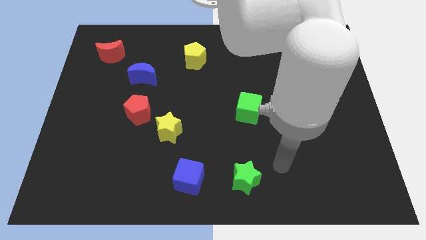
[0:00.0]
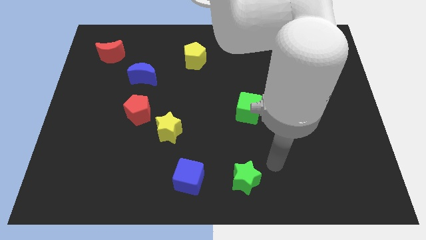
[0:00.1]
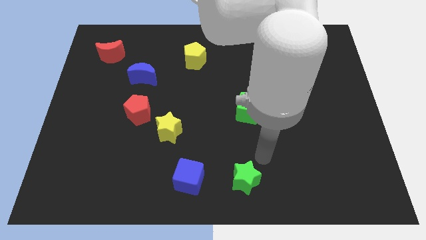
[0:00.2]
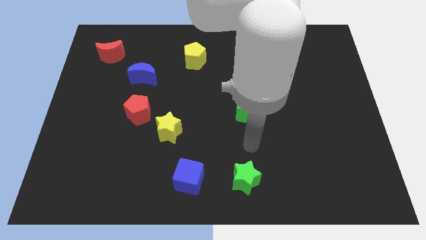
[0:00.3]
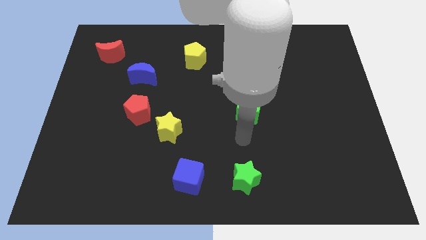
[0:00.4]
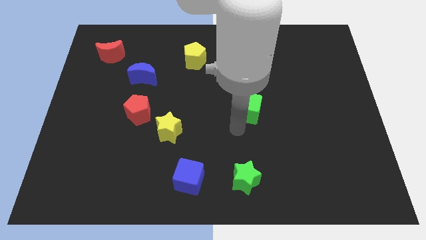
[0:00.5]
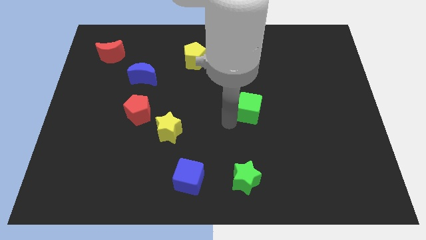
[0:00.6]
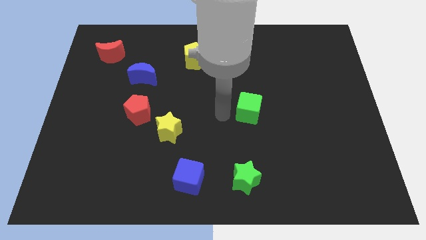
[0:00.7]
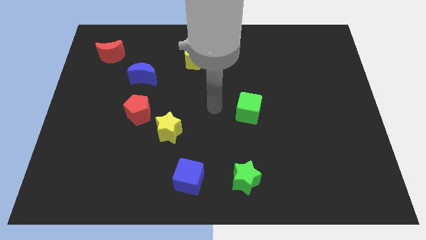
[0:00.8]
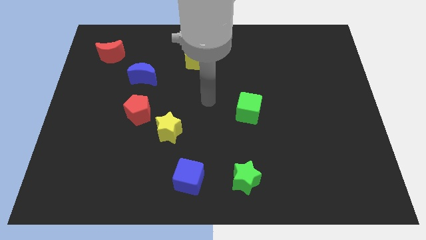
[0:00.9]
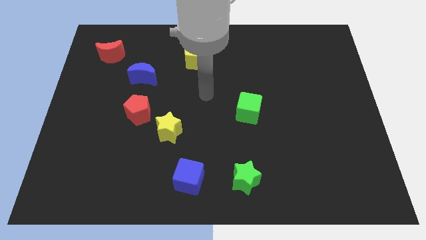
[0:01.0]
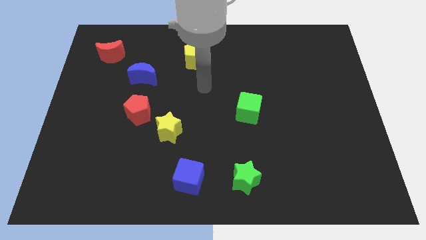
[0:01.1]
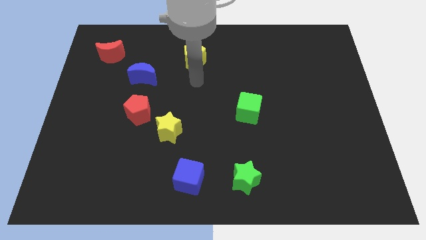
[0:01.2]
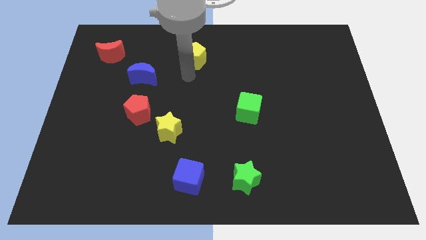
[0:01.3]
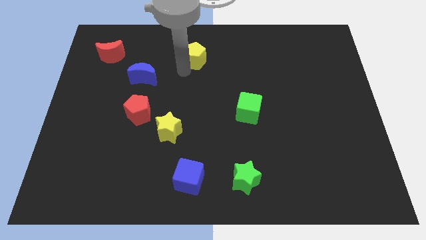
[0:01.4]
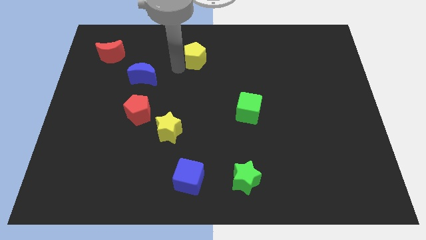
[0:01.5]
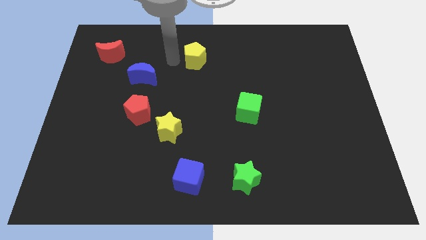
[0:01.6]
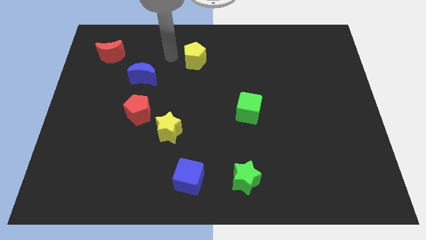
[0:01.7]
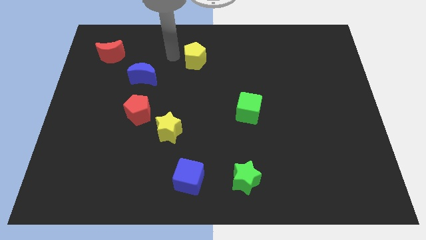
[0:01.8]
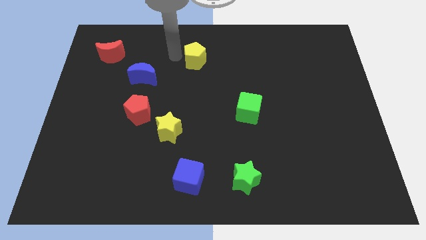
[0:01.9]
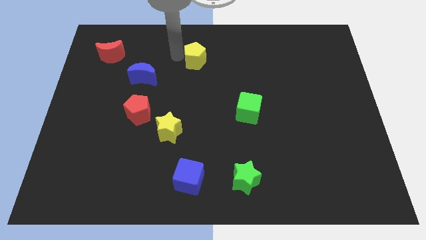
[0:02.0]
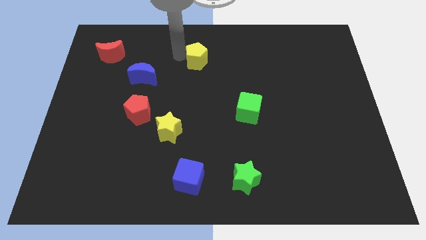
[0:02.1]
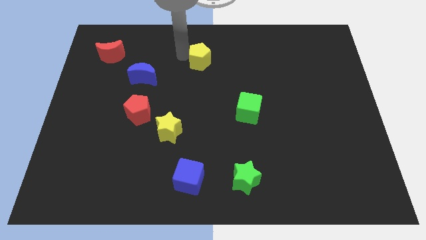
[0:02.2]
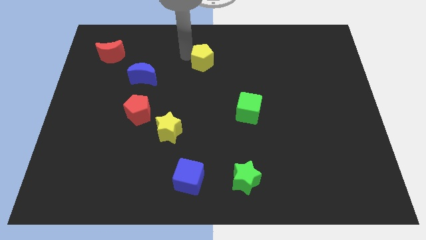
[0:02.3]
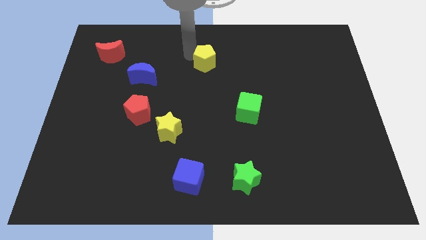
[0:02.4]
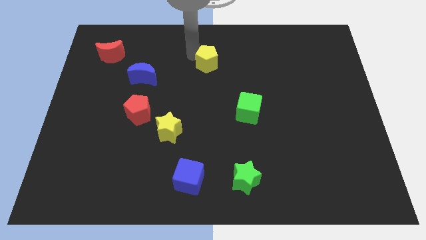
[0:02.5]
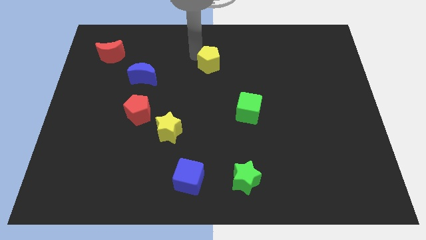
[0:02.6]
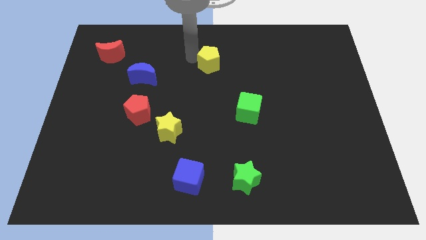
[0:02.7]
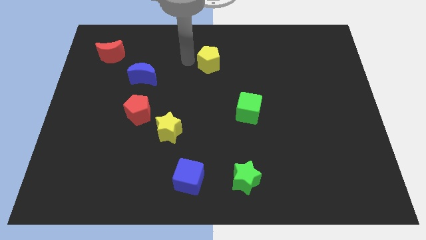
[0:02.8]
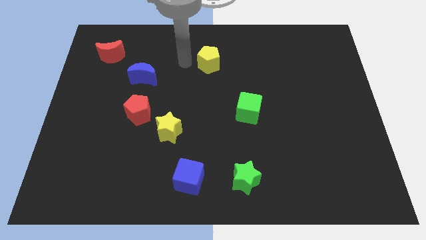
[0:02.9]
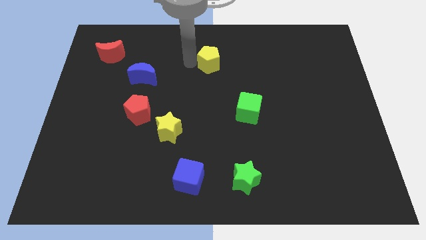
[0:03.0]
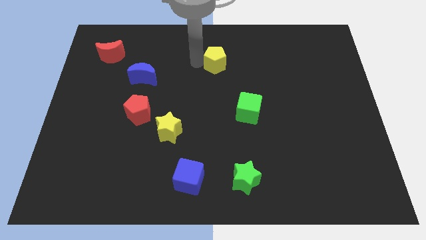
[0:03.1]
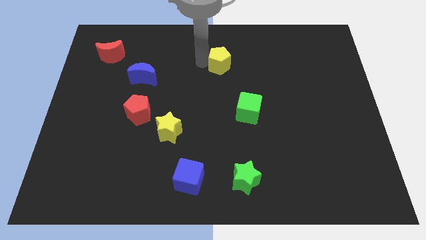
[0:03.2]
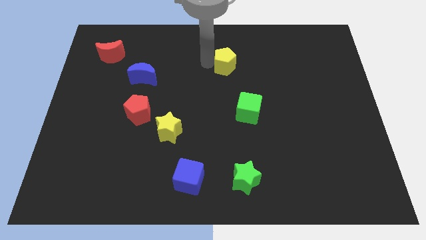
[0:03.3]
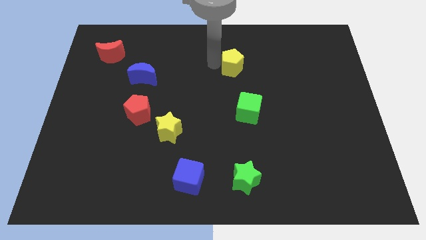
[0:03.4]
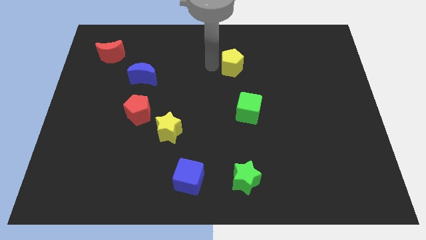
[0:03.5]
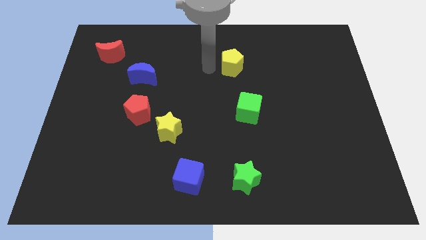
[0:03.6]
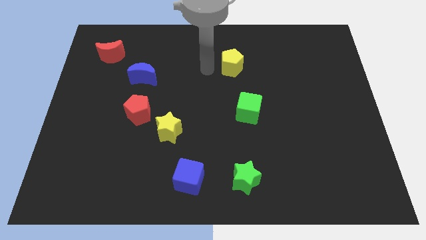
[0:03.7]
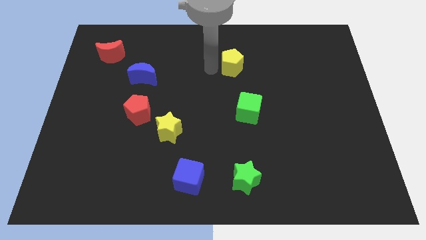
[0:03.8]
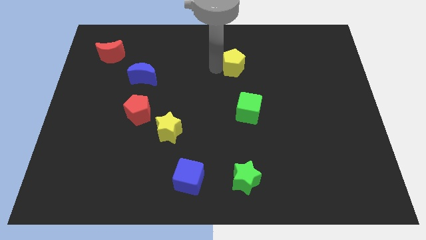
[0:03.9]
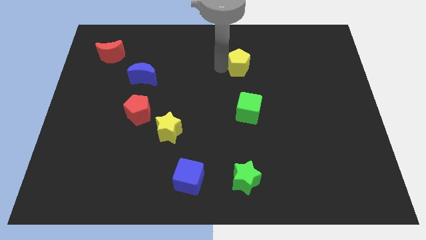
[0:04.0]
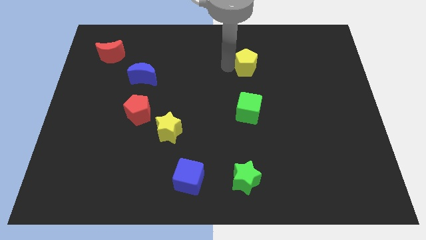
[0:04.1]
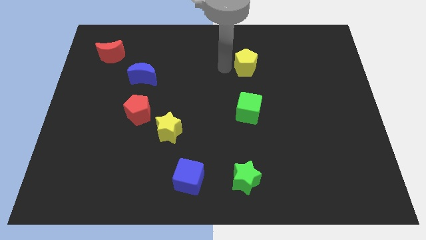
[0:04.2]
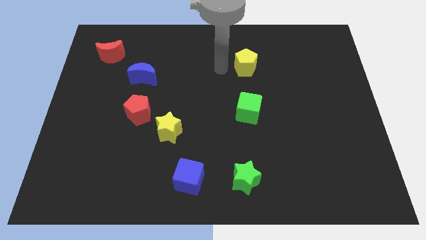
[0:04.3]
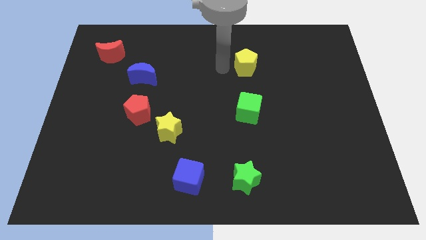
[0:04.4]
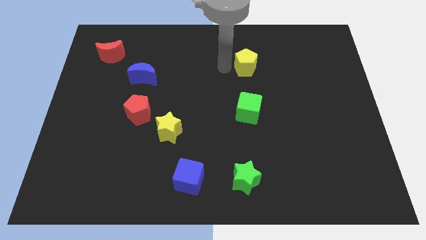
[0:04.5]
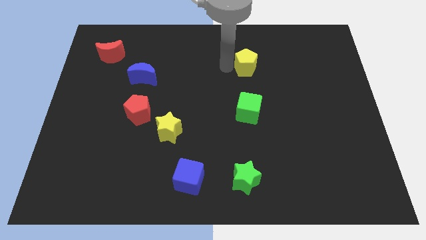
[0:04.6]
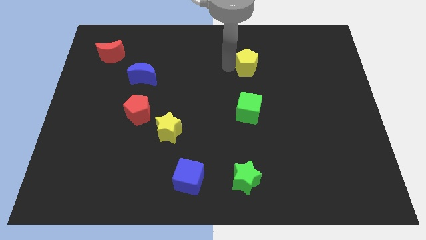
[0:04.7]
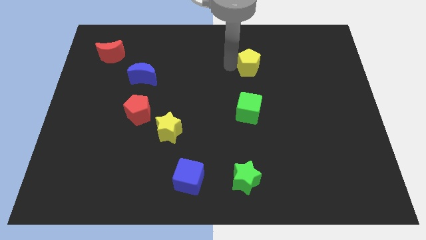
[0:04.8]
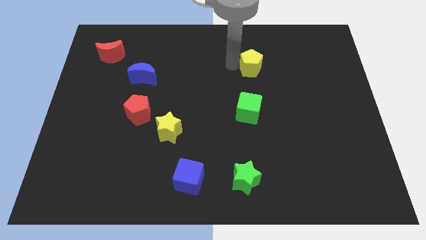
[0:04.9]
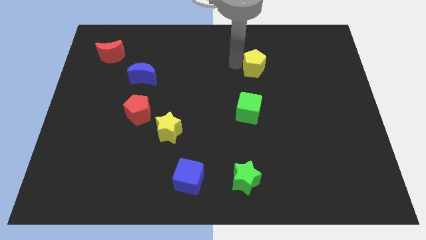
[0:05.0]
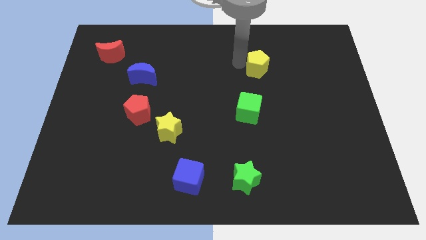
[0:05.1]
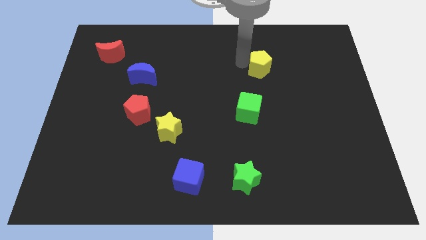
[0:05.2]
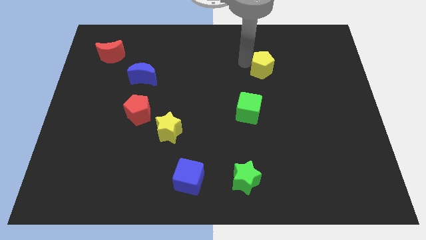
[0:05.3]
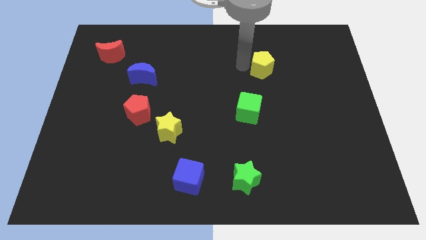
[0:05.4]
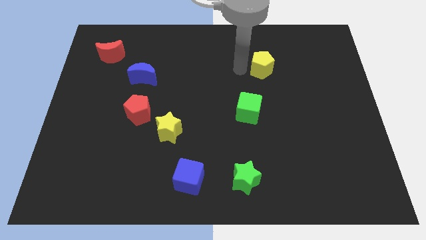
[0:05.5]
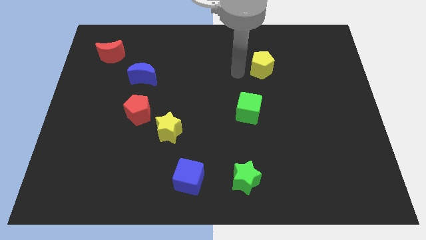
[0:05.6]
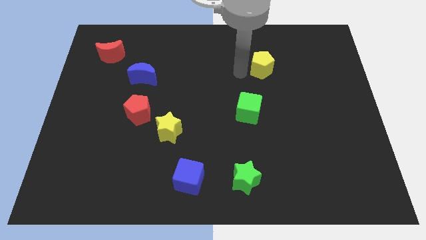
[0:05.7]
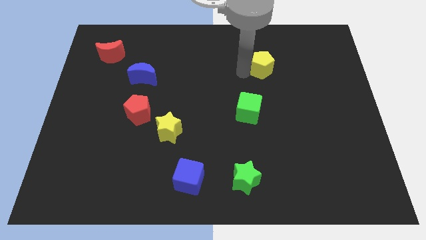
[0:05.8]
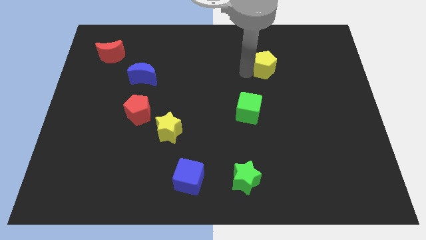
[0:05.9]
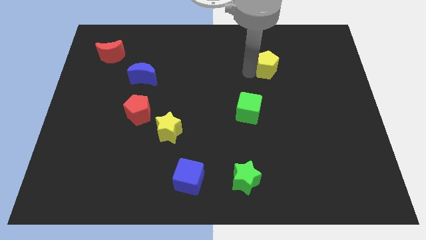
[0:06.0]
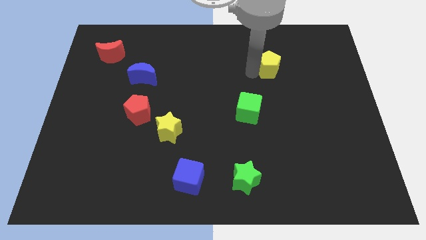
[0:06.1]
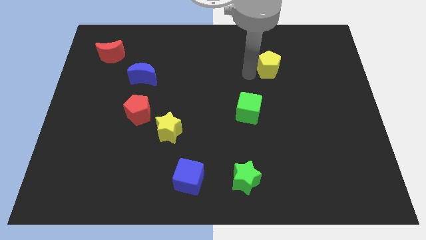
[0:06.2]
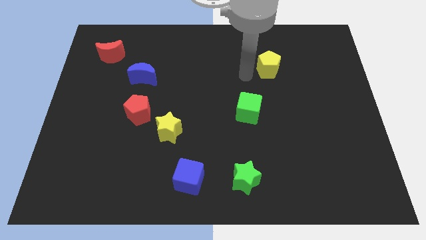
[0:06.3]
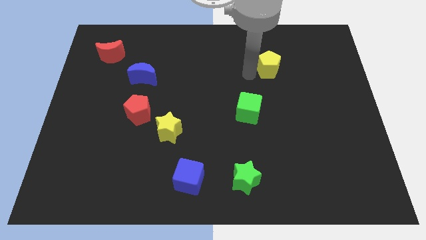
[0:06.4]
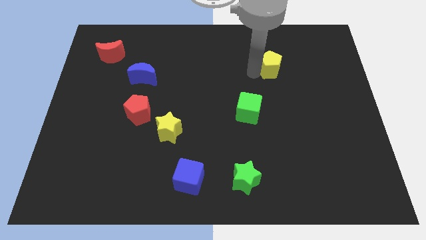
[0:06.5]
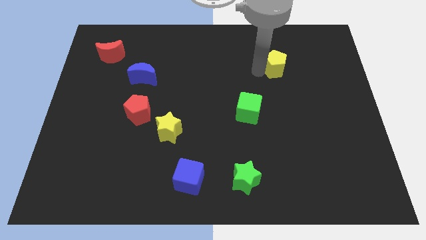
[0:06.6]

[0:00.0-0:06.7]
push the yellow pentagon to the right

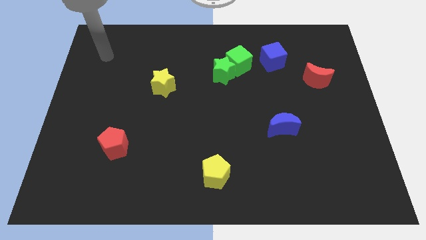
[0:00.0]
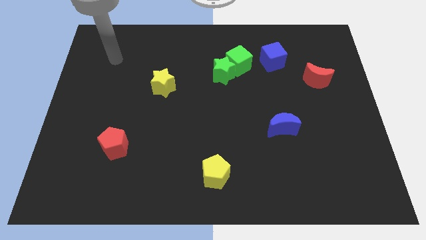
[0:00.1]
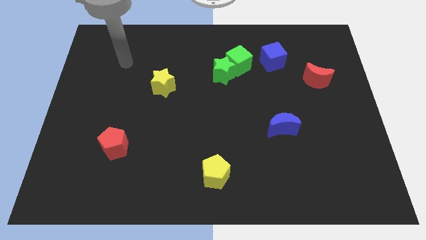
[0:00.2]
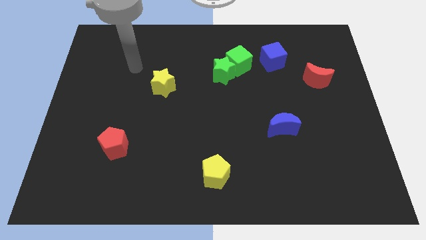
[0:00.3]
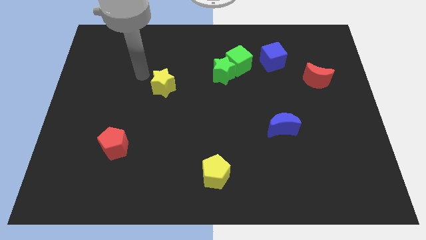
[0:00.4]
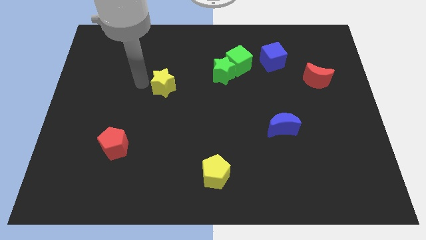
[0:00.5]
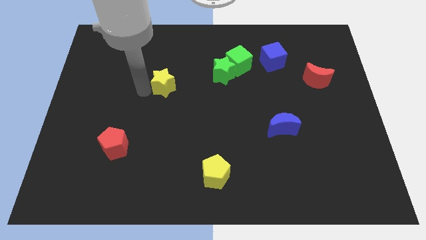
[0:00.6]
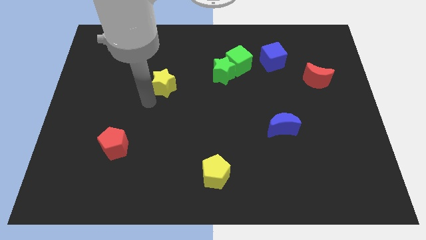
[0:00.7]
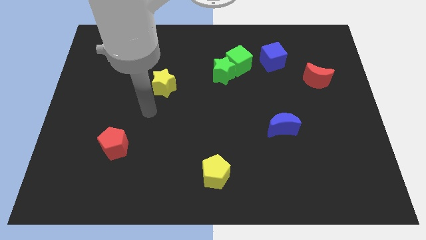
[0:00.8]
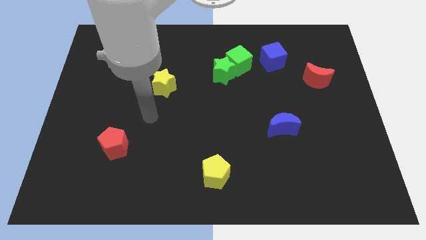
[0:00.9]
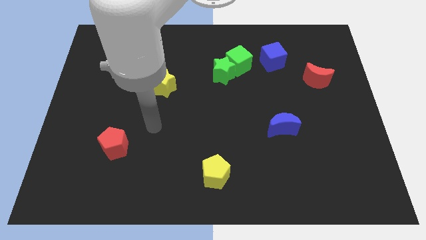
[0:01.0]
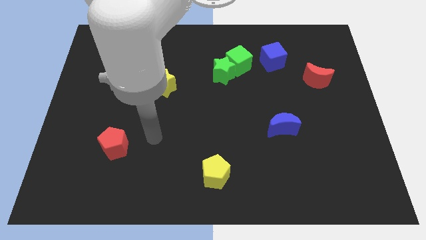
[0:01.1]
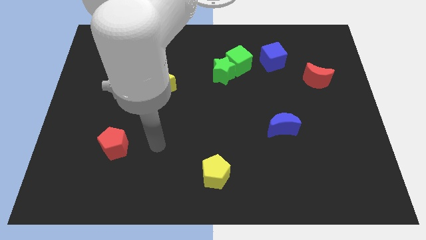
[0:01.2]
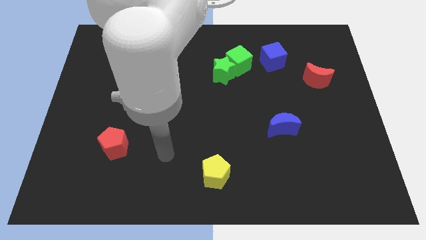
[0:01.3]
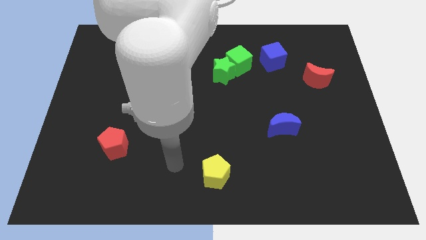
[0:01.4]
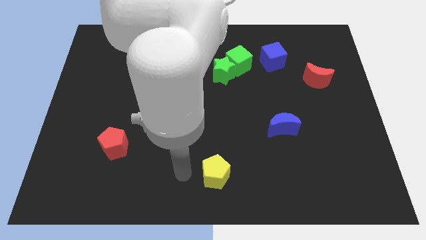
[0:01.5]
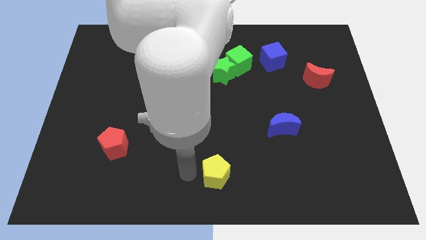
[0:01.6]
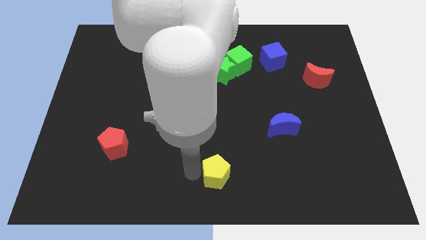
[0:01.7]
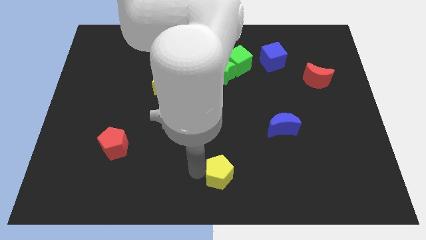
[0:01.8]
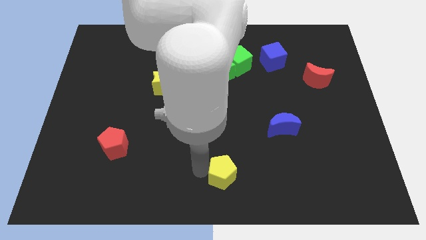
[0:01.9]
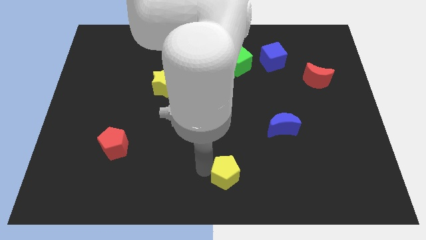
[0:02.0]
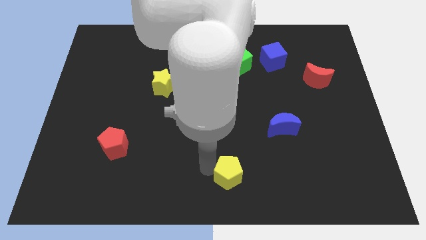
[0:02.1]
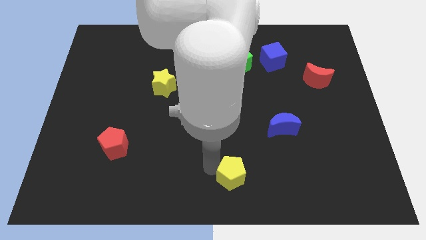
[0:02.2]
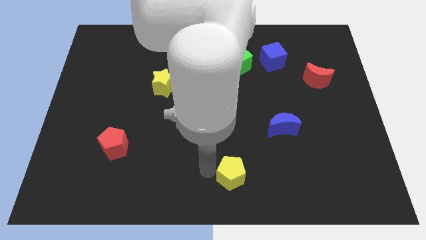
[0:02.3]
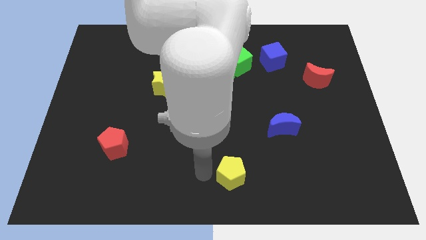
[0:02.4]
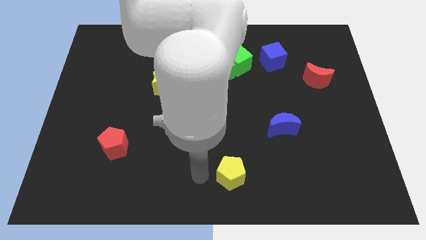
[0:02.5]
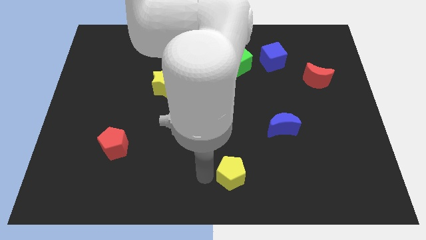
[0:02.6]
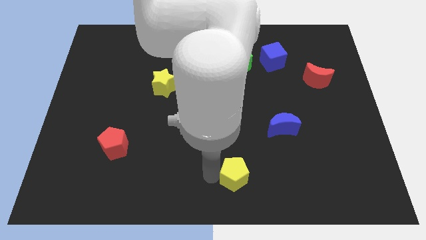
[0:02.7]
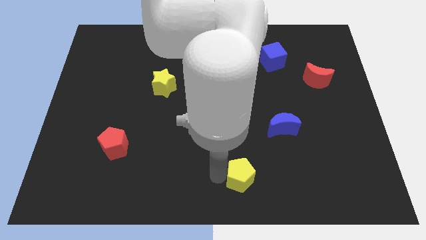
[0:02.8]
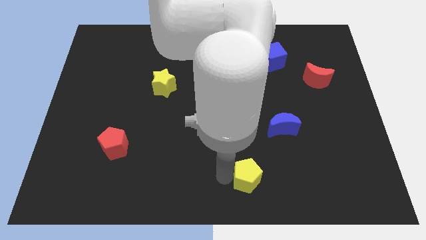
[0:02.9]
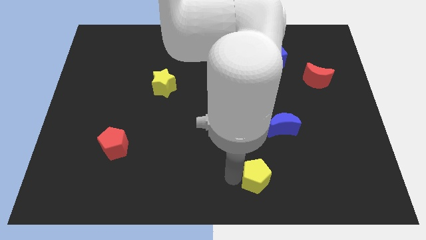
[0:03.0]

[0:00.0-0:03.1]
slightly push the yellow pentagon right
